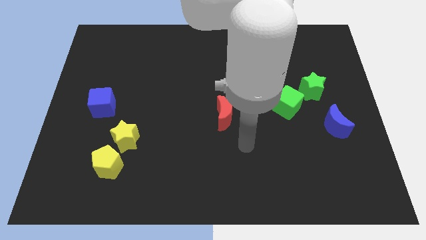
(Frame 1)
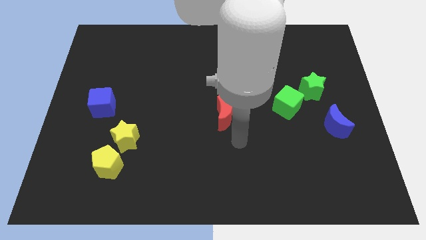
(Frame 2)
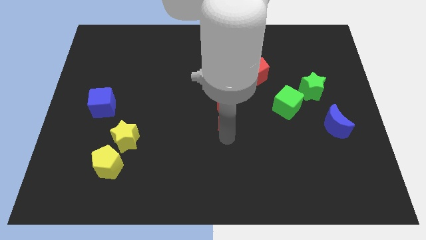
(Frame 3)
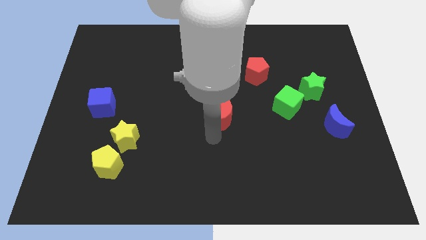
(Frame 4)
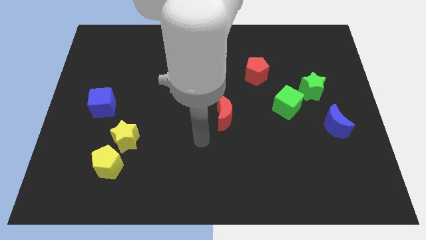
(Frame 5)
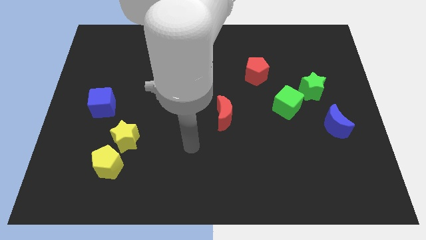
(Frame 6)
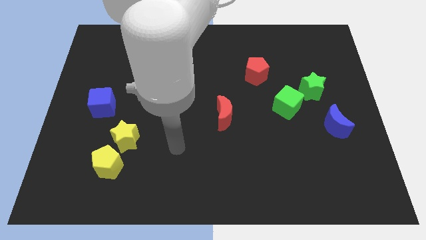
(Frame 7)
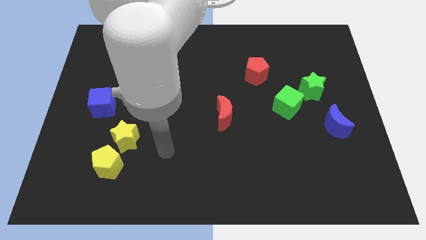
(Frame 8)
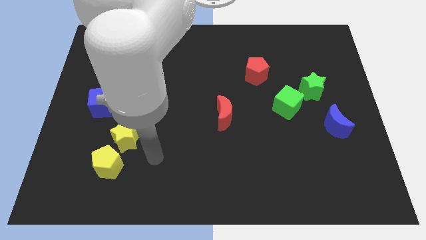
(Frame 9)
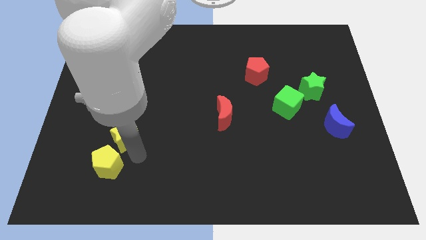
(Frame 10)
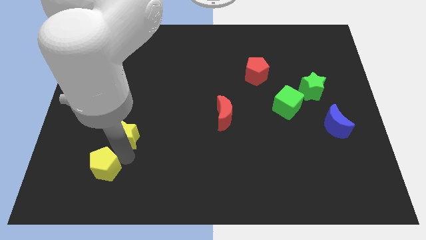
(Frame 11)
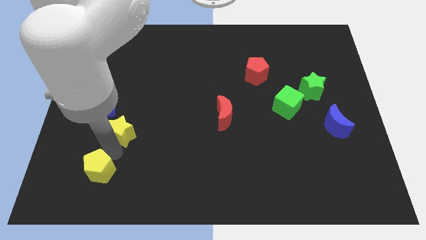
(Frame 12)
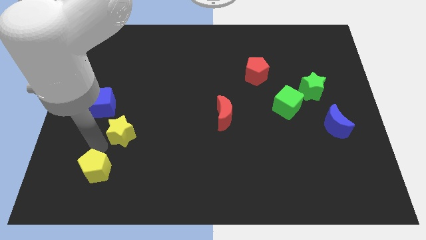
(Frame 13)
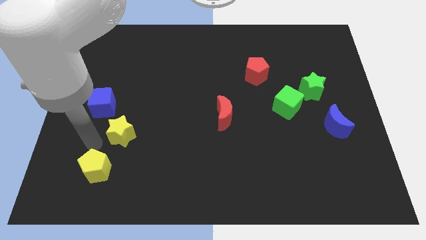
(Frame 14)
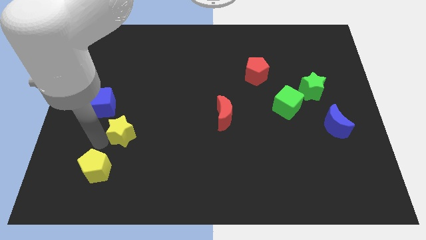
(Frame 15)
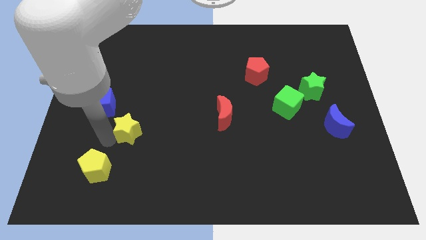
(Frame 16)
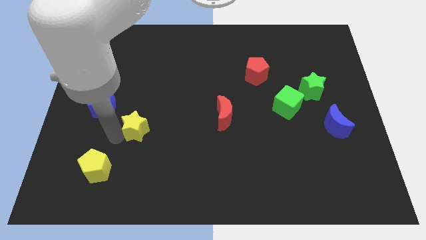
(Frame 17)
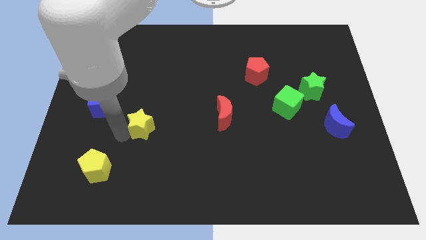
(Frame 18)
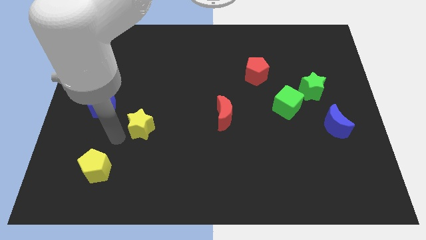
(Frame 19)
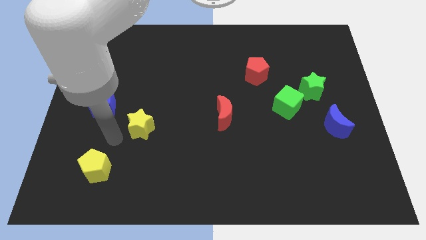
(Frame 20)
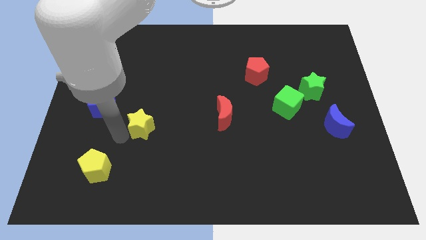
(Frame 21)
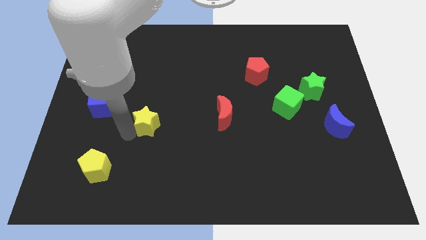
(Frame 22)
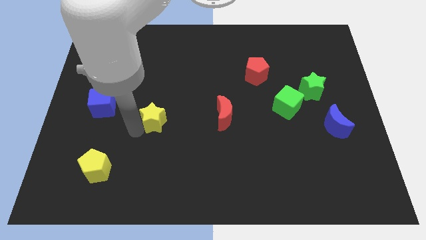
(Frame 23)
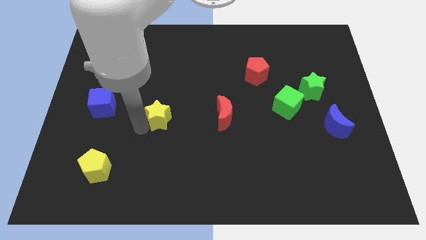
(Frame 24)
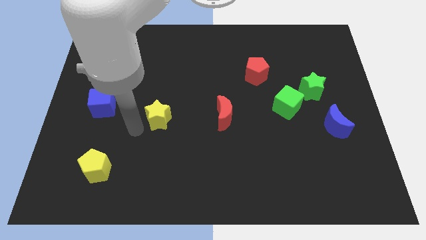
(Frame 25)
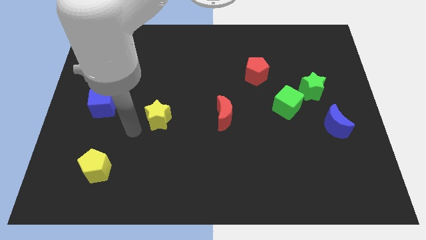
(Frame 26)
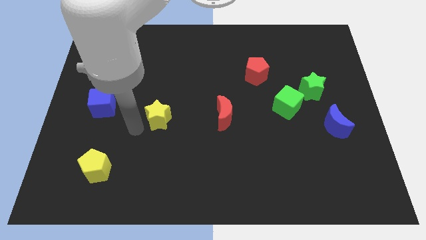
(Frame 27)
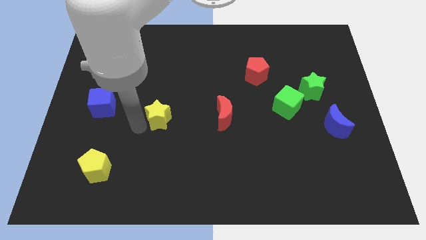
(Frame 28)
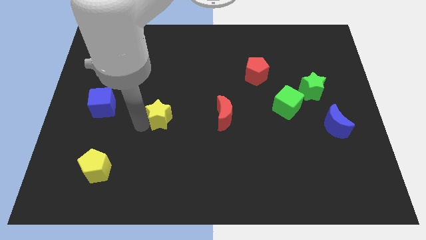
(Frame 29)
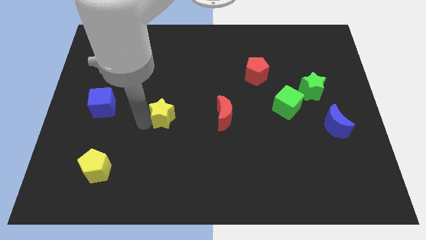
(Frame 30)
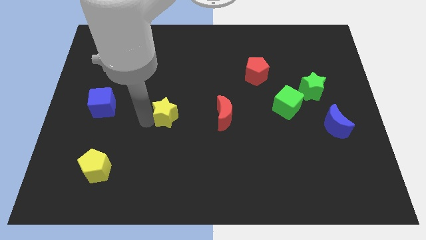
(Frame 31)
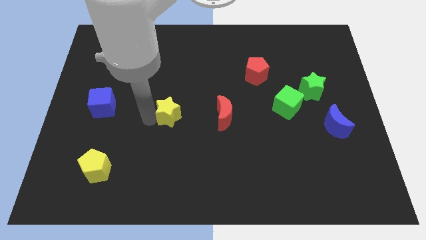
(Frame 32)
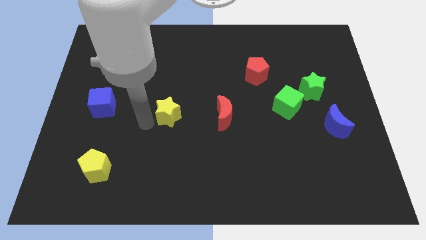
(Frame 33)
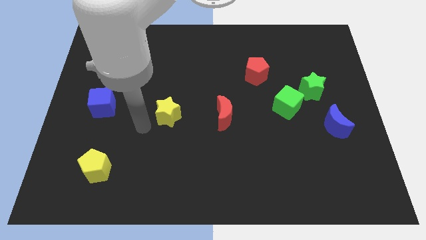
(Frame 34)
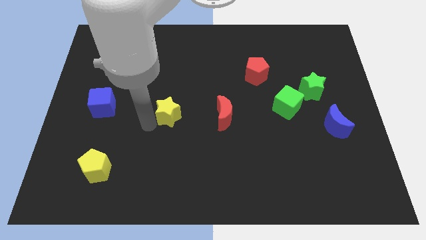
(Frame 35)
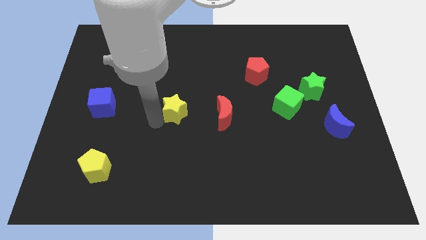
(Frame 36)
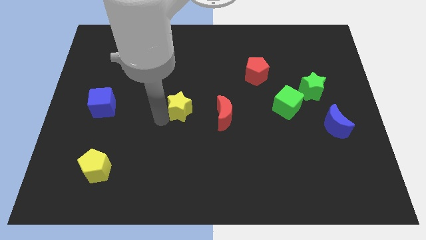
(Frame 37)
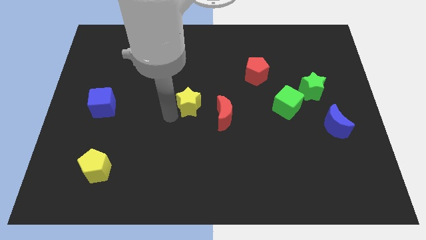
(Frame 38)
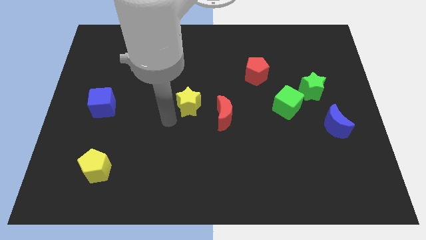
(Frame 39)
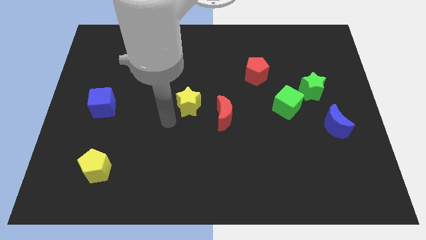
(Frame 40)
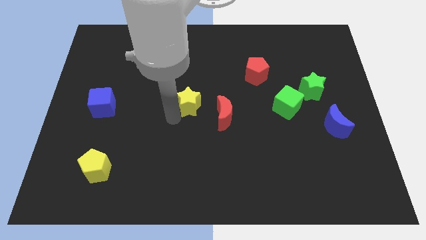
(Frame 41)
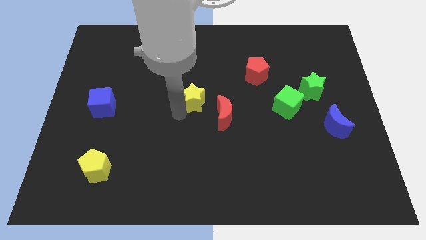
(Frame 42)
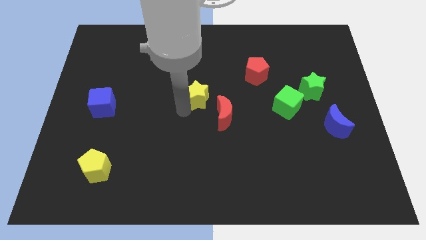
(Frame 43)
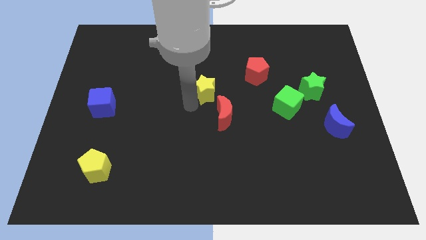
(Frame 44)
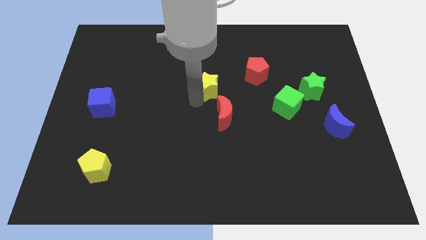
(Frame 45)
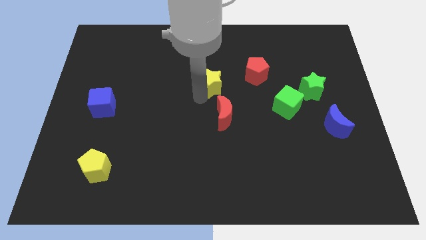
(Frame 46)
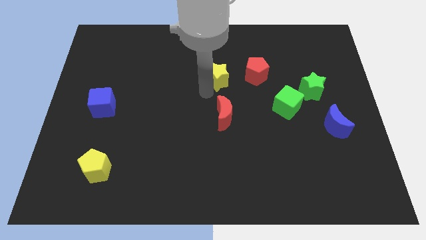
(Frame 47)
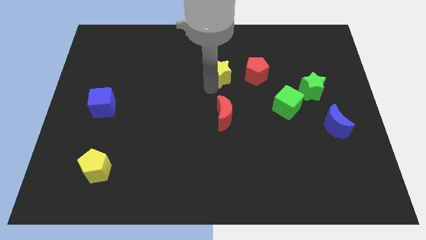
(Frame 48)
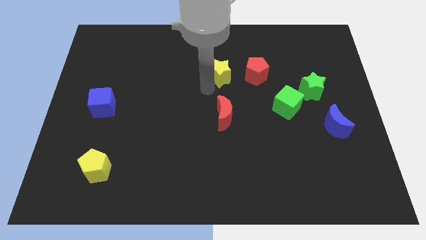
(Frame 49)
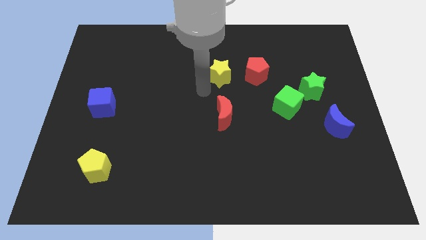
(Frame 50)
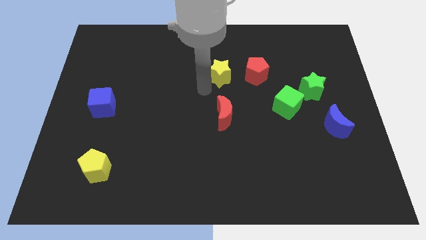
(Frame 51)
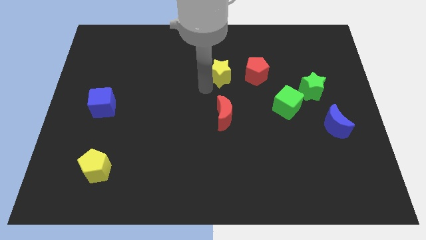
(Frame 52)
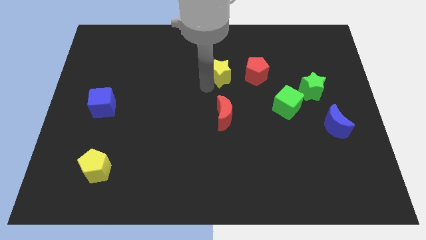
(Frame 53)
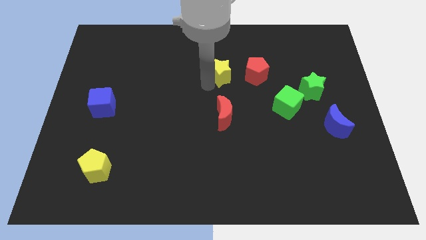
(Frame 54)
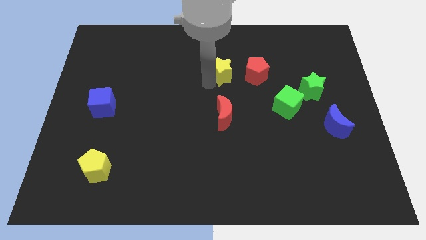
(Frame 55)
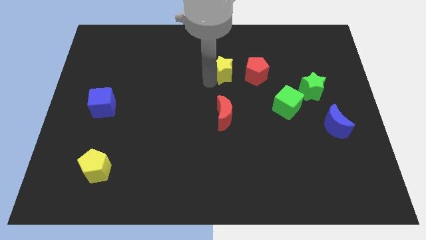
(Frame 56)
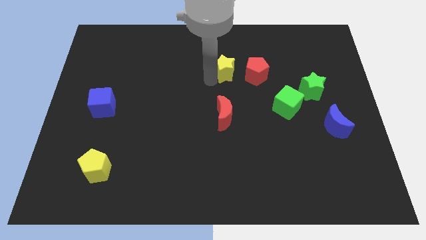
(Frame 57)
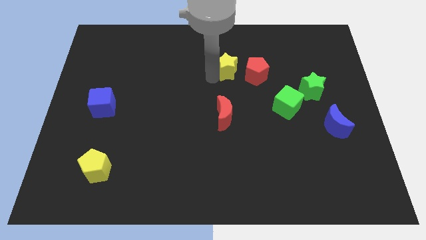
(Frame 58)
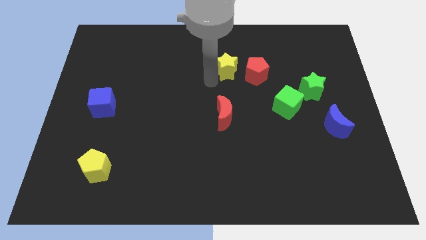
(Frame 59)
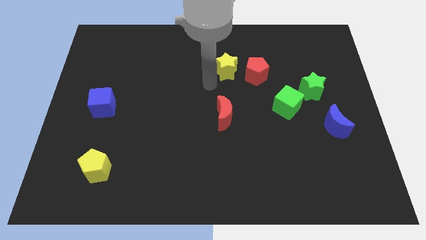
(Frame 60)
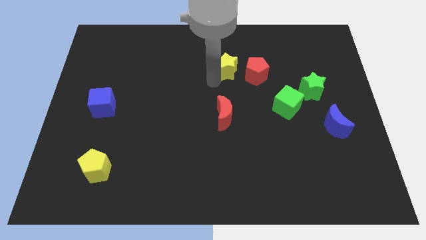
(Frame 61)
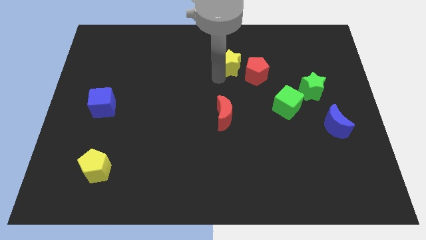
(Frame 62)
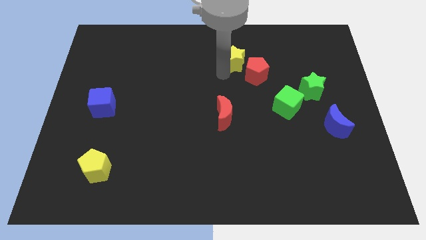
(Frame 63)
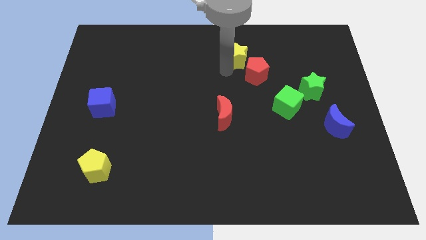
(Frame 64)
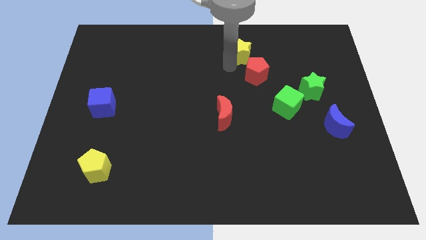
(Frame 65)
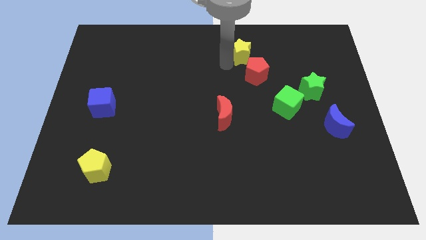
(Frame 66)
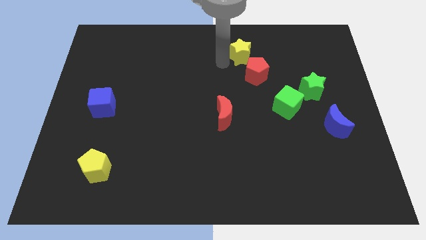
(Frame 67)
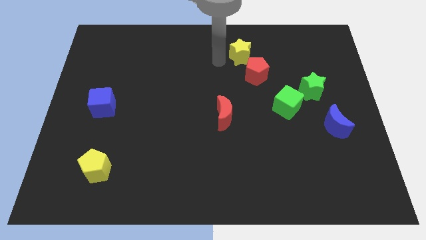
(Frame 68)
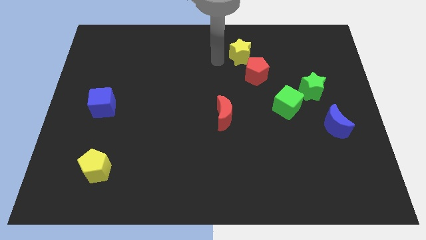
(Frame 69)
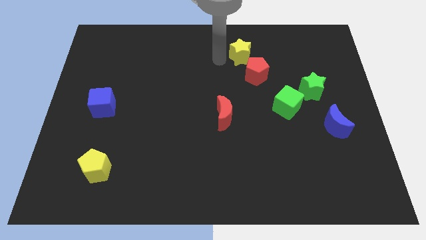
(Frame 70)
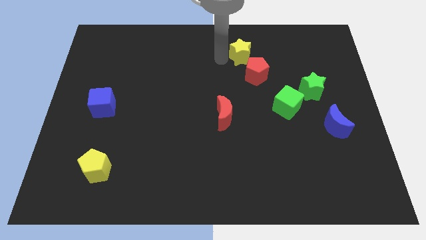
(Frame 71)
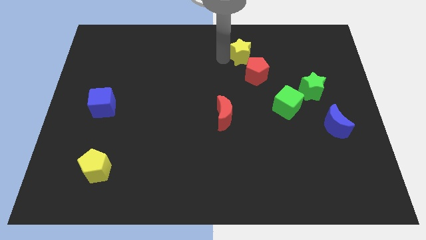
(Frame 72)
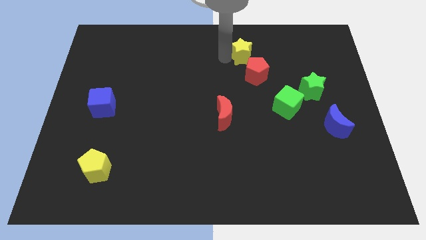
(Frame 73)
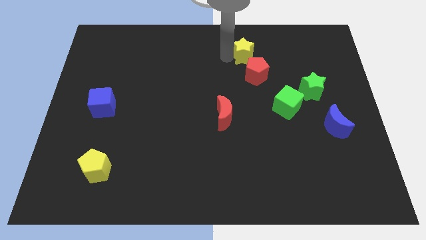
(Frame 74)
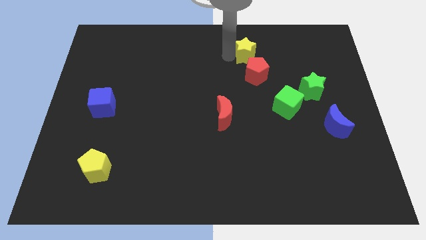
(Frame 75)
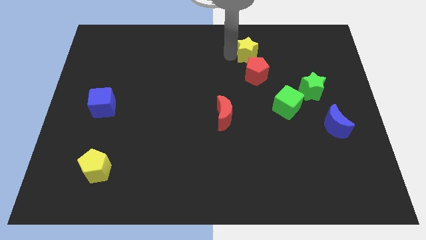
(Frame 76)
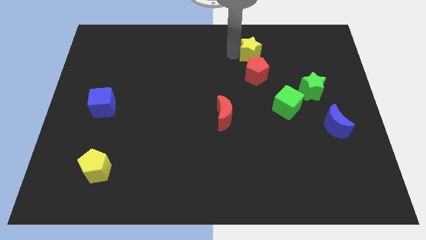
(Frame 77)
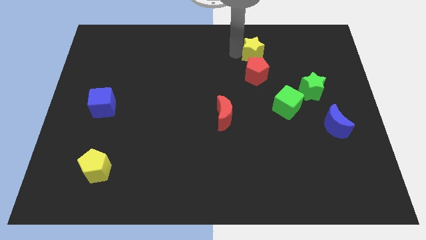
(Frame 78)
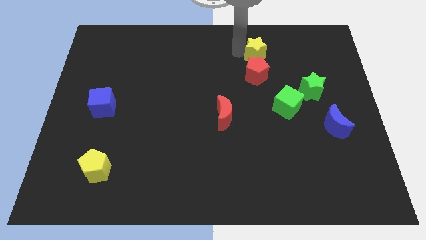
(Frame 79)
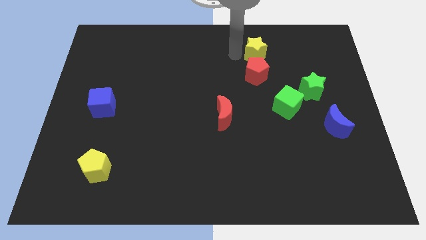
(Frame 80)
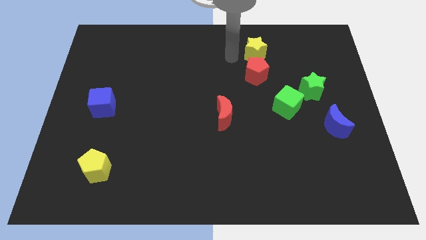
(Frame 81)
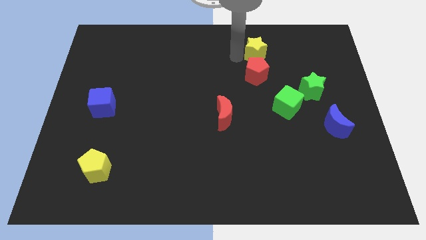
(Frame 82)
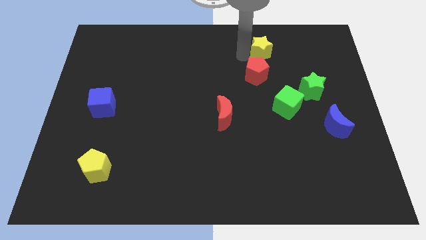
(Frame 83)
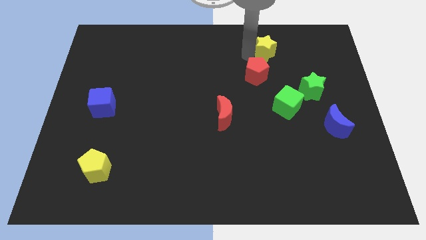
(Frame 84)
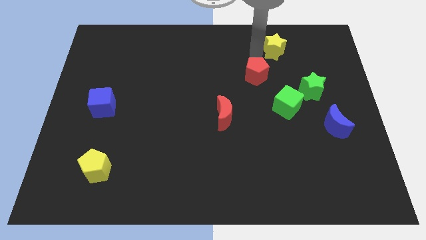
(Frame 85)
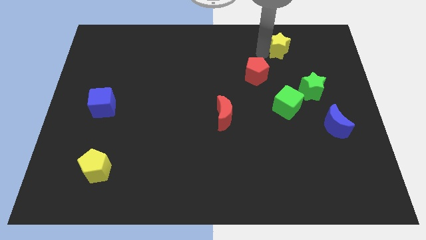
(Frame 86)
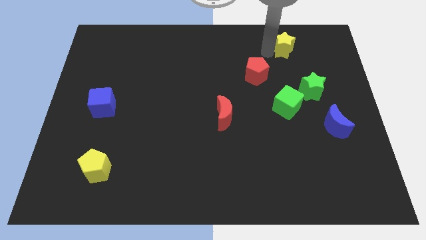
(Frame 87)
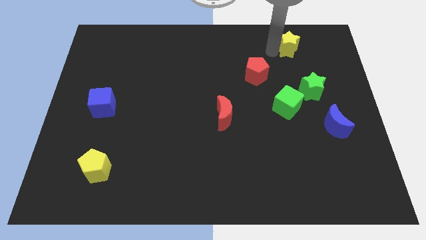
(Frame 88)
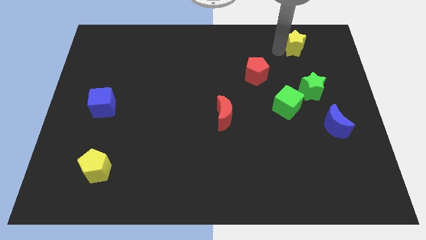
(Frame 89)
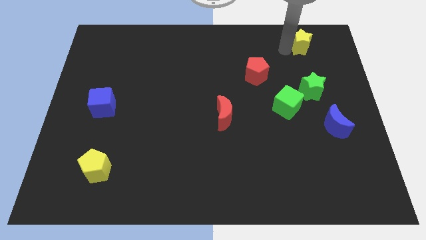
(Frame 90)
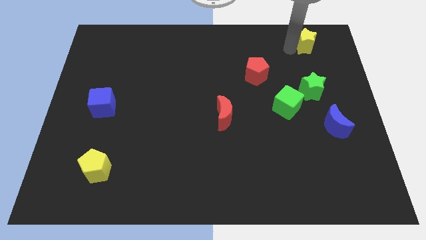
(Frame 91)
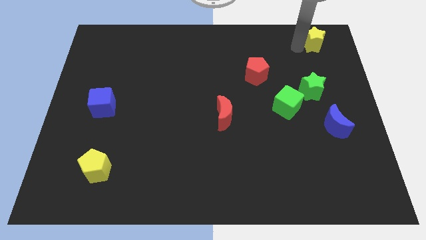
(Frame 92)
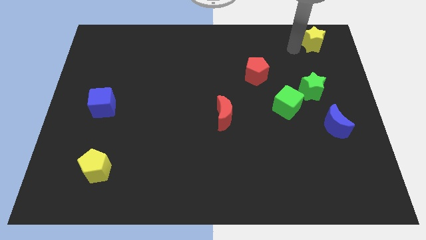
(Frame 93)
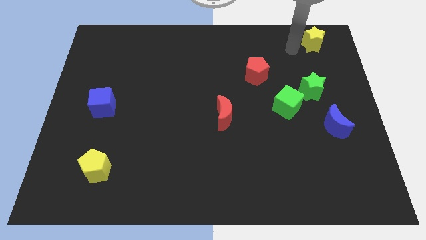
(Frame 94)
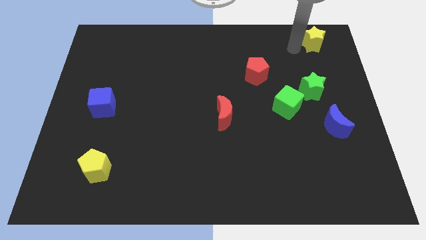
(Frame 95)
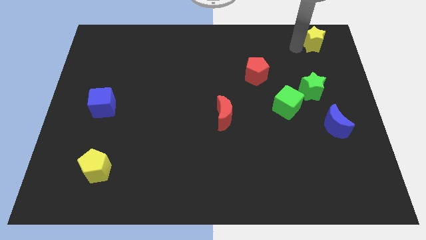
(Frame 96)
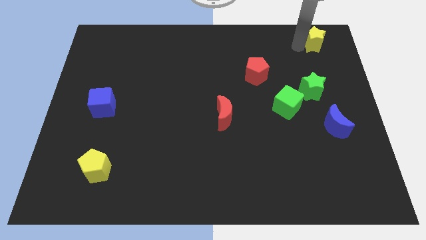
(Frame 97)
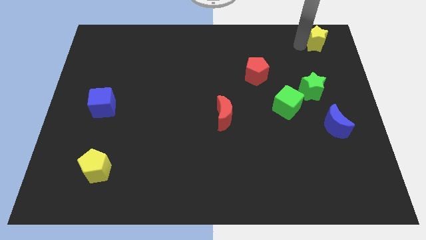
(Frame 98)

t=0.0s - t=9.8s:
move the yellow star to the top right corner
